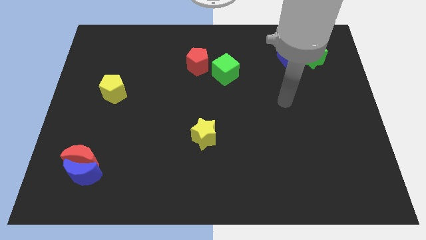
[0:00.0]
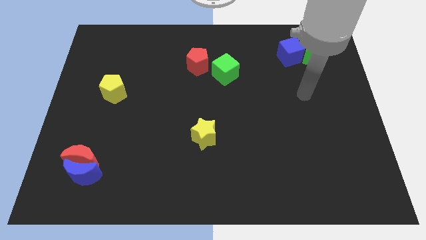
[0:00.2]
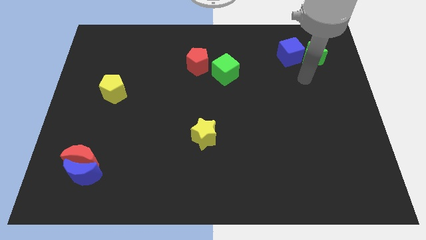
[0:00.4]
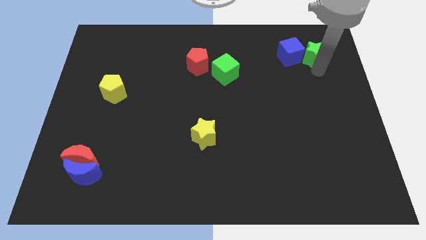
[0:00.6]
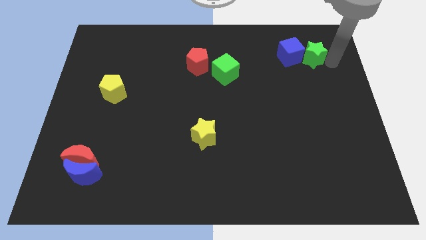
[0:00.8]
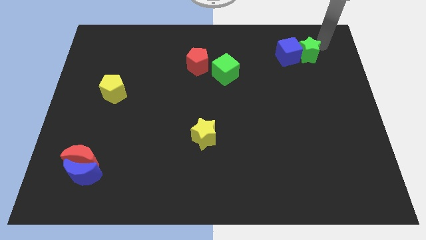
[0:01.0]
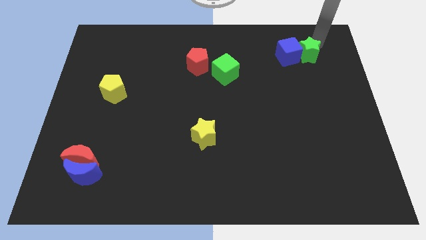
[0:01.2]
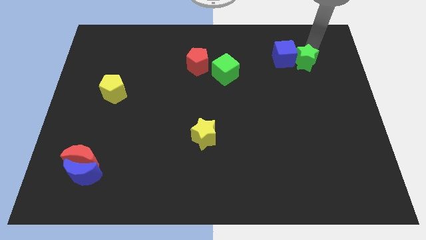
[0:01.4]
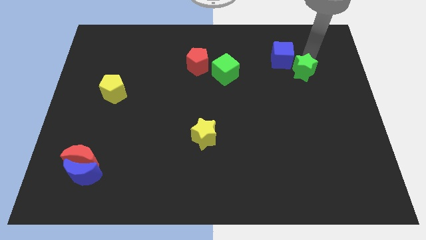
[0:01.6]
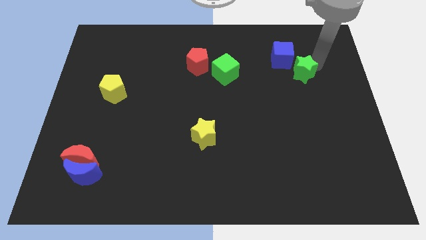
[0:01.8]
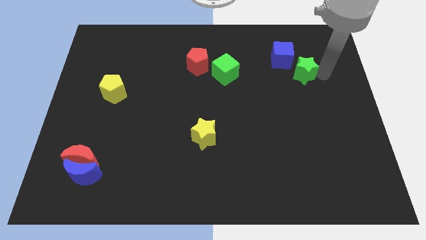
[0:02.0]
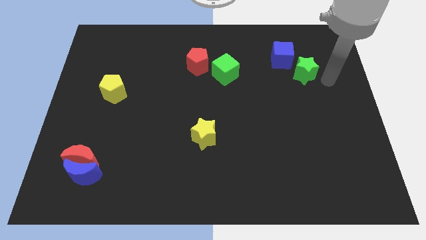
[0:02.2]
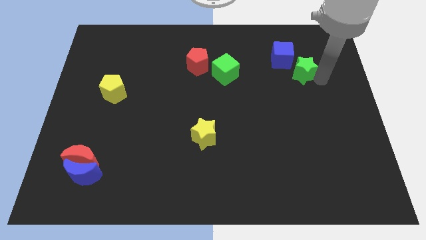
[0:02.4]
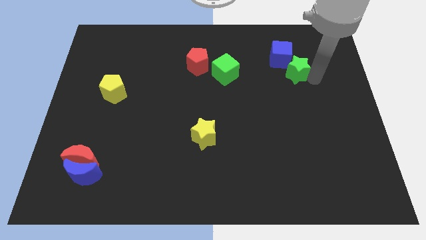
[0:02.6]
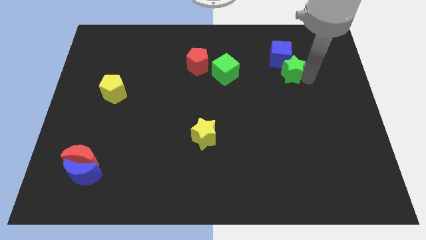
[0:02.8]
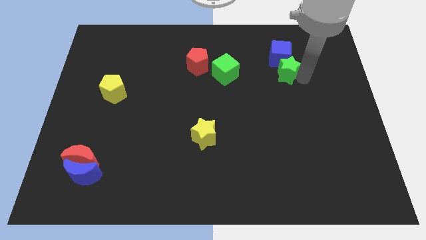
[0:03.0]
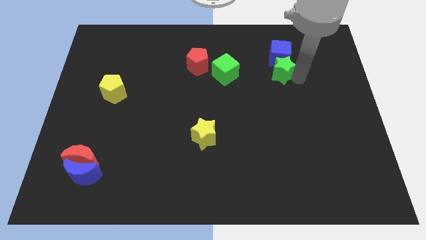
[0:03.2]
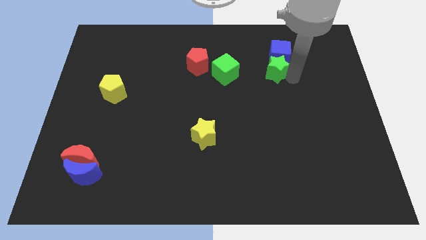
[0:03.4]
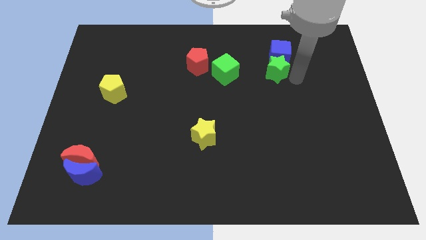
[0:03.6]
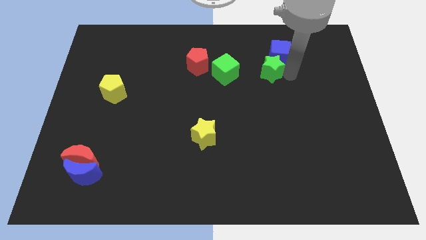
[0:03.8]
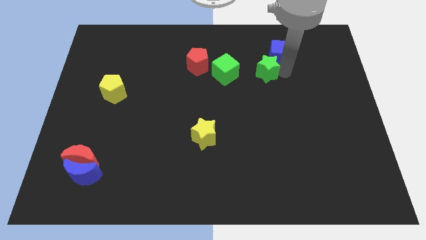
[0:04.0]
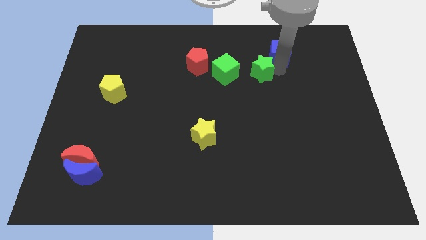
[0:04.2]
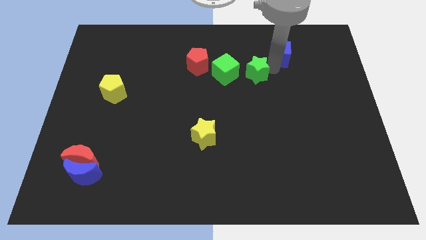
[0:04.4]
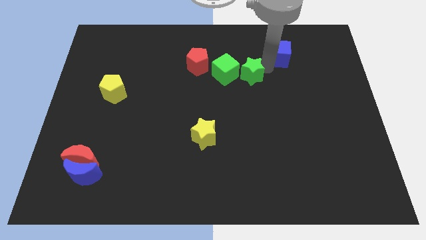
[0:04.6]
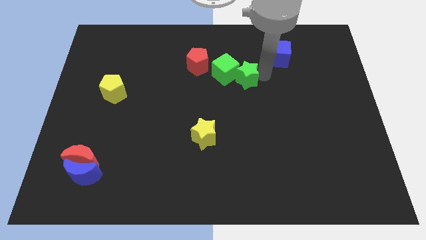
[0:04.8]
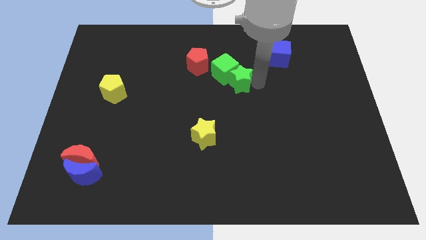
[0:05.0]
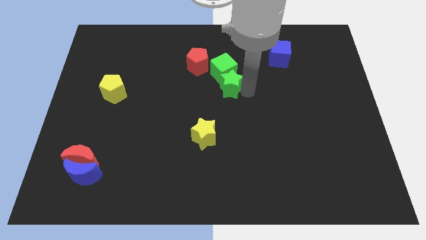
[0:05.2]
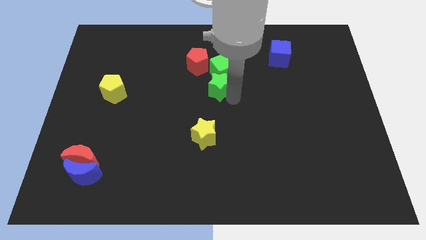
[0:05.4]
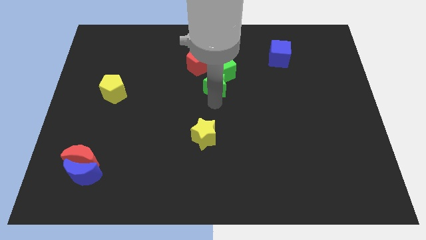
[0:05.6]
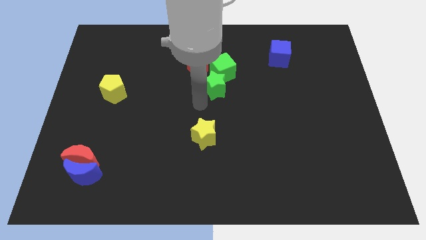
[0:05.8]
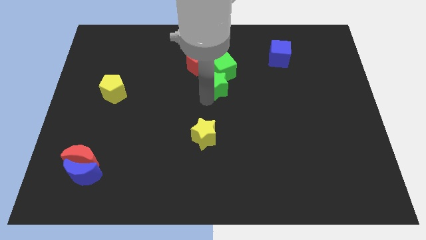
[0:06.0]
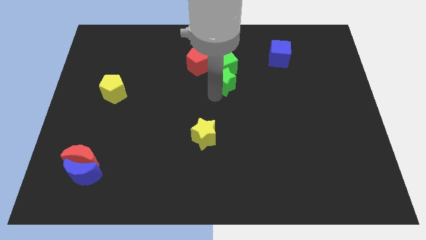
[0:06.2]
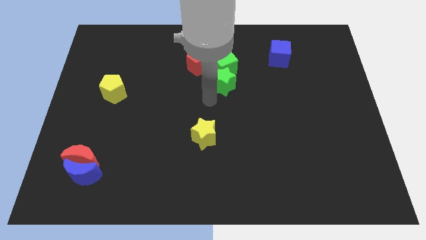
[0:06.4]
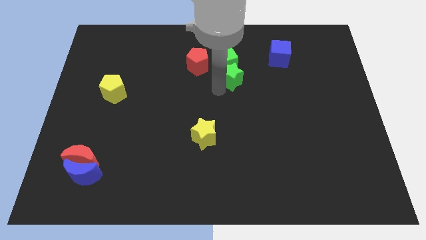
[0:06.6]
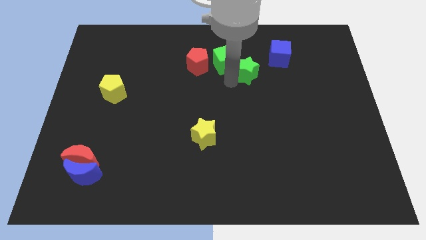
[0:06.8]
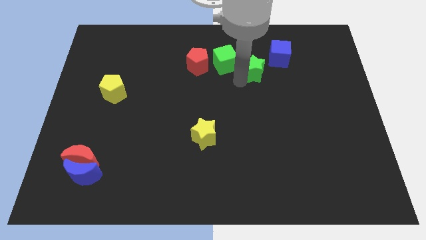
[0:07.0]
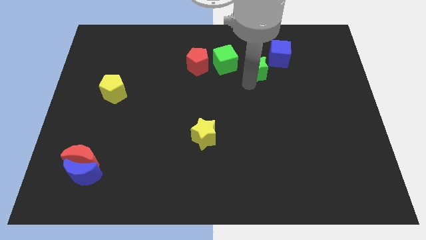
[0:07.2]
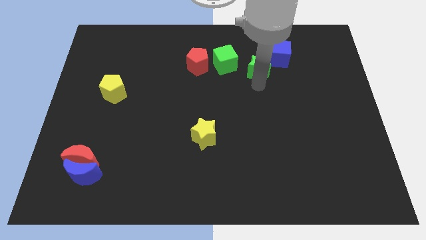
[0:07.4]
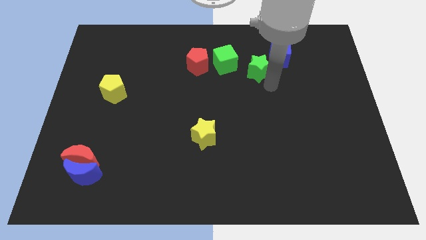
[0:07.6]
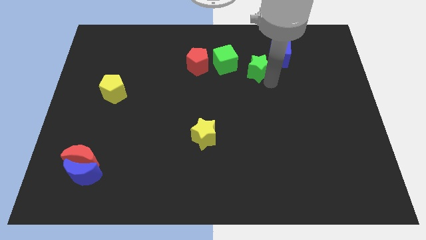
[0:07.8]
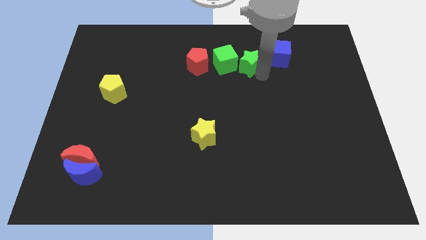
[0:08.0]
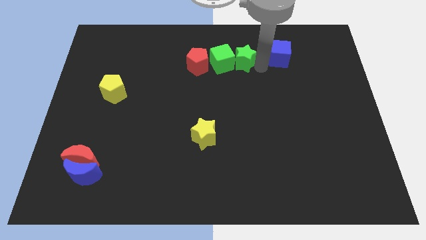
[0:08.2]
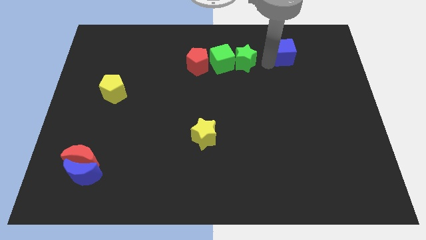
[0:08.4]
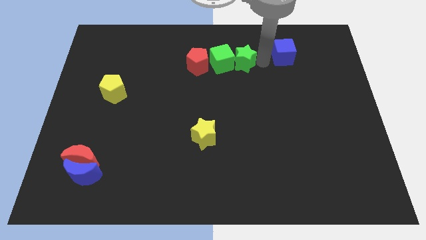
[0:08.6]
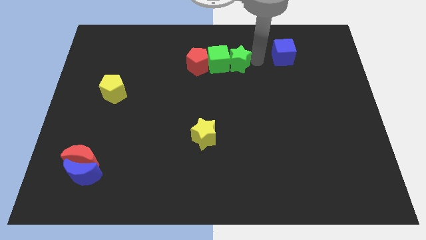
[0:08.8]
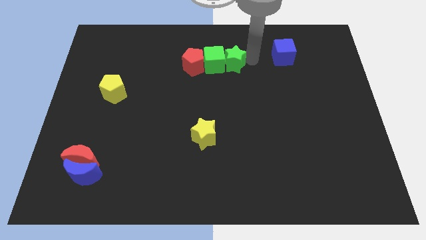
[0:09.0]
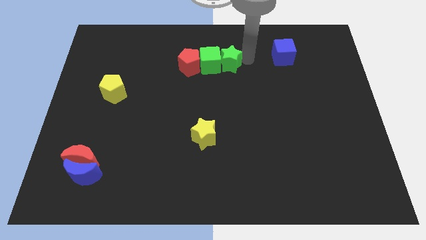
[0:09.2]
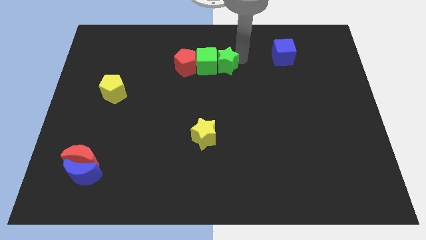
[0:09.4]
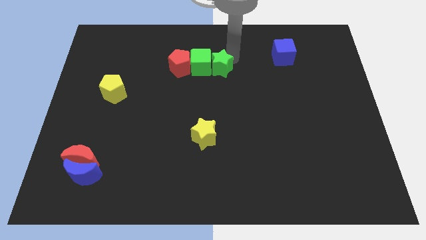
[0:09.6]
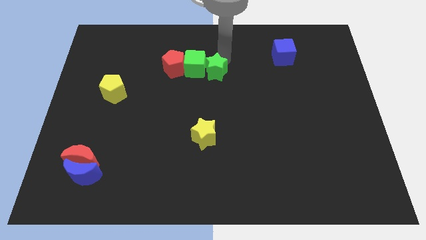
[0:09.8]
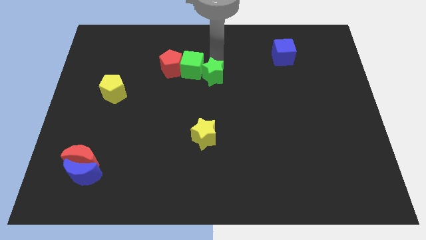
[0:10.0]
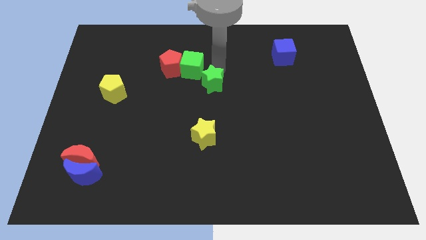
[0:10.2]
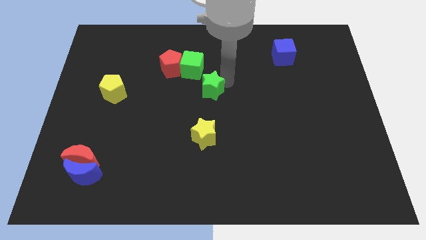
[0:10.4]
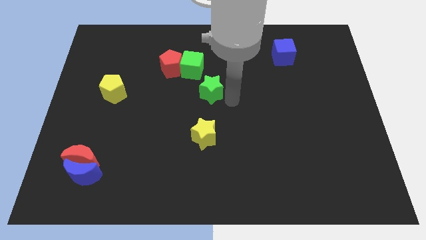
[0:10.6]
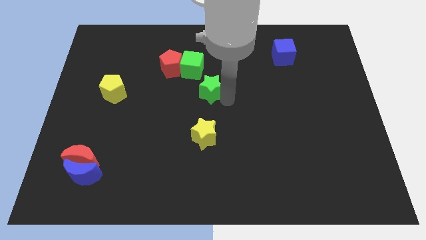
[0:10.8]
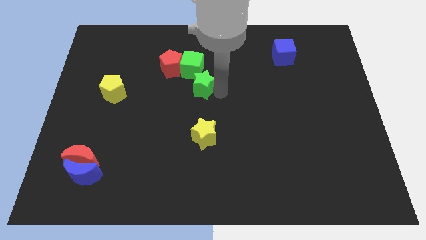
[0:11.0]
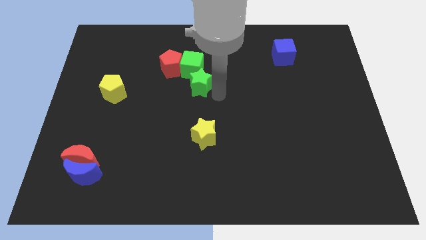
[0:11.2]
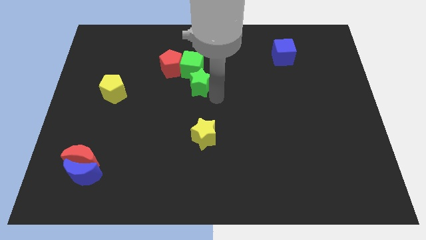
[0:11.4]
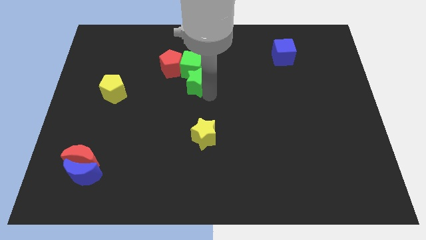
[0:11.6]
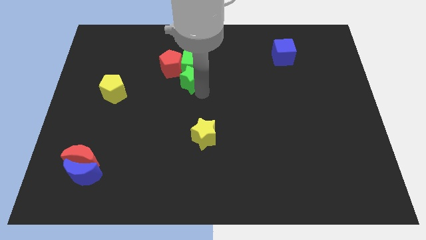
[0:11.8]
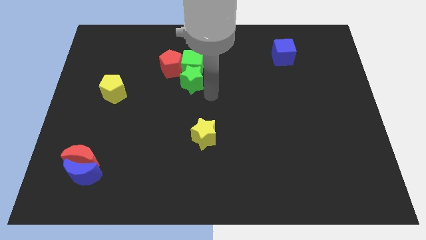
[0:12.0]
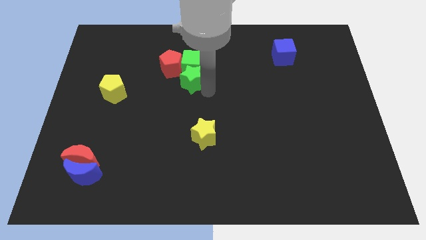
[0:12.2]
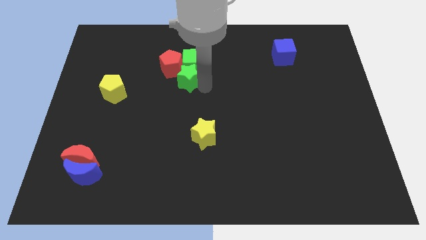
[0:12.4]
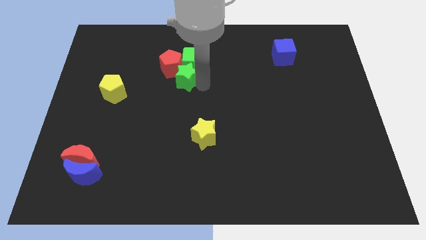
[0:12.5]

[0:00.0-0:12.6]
push the green star towards the red pentagon

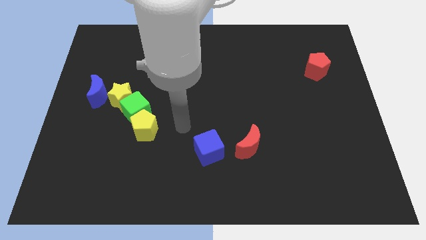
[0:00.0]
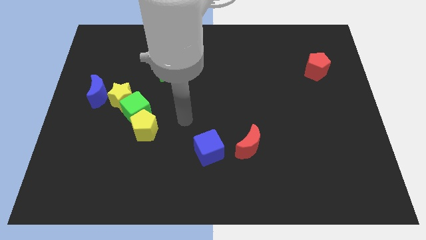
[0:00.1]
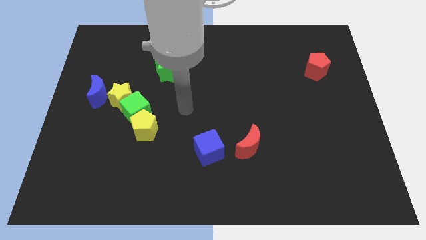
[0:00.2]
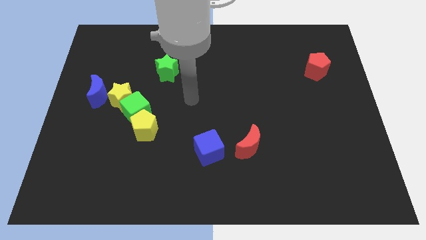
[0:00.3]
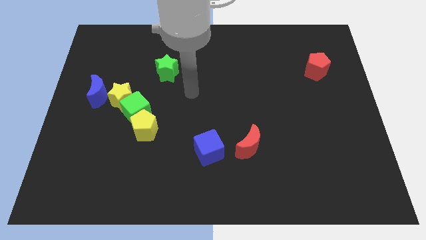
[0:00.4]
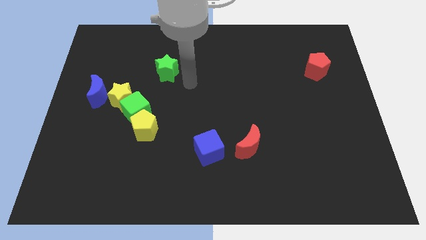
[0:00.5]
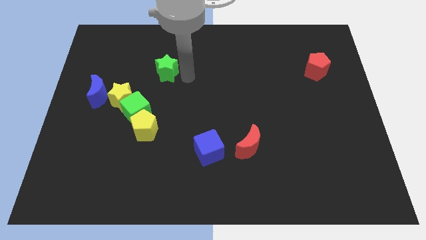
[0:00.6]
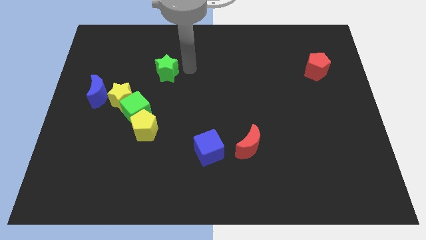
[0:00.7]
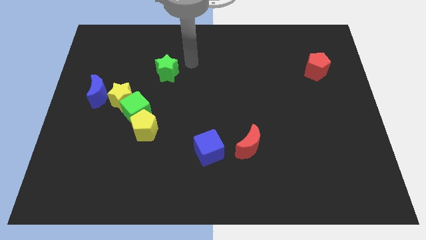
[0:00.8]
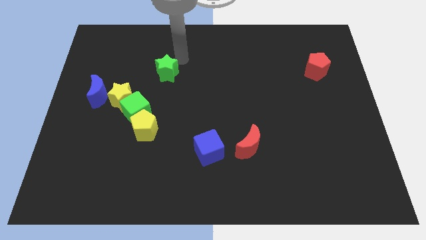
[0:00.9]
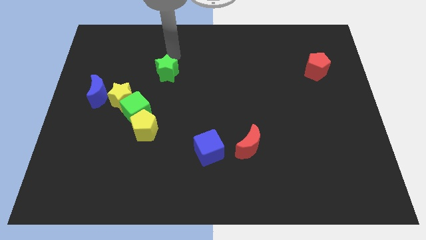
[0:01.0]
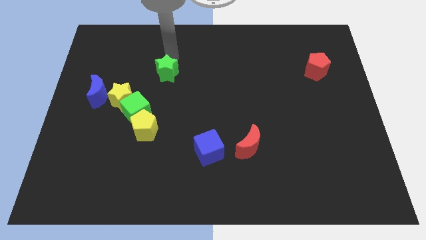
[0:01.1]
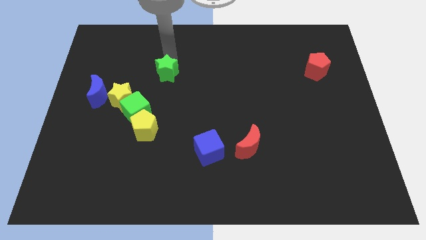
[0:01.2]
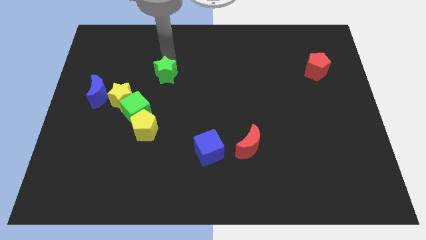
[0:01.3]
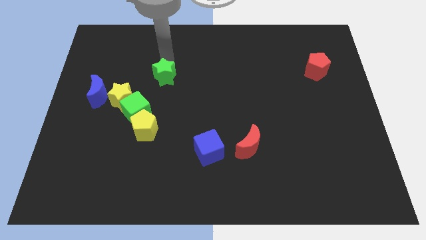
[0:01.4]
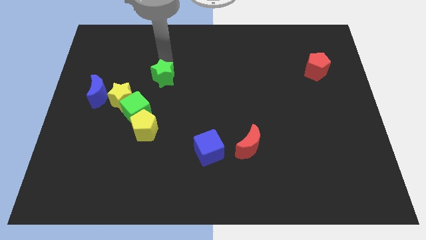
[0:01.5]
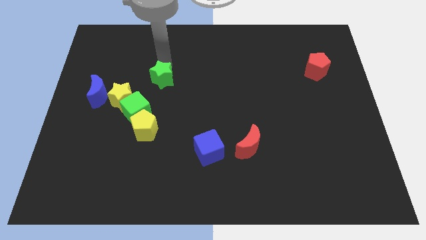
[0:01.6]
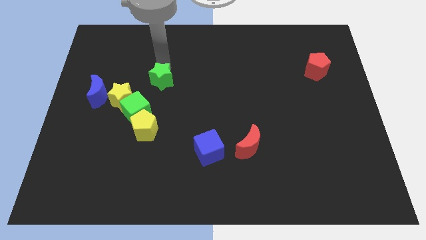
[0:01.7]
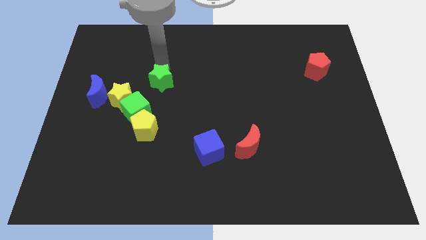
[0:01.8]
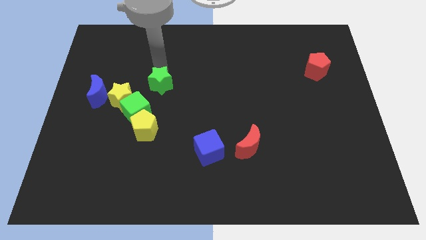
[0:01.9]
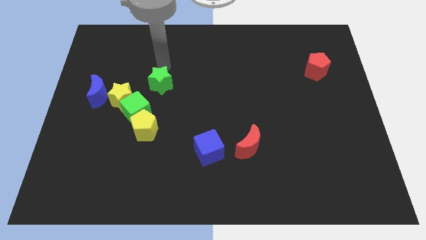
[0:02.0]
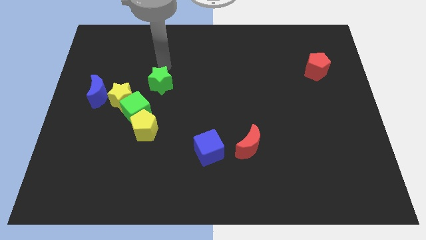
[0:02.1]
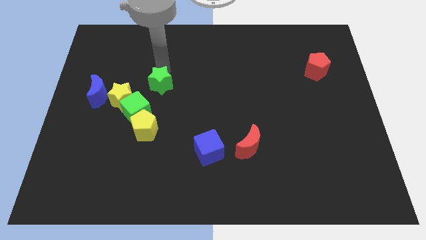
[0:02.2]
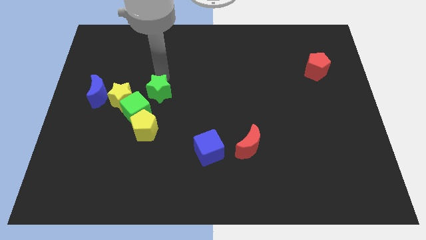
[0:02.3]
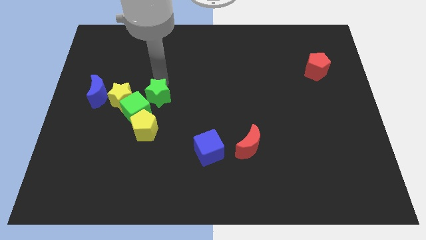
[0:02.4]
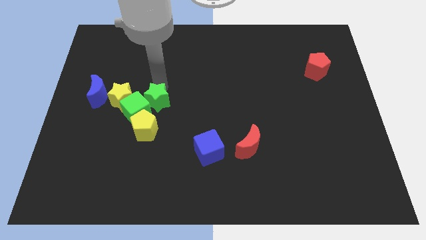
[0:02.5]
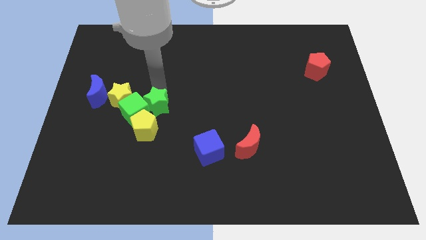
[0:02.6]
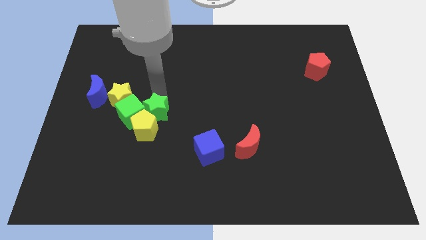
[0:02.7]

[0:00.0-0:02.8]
move the green star next to the yellow pentagon
